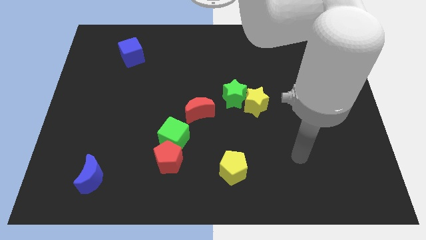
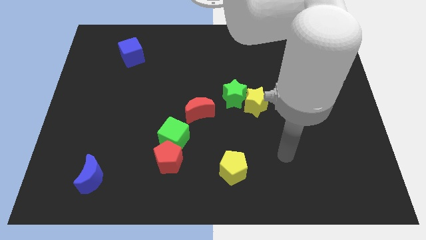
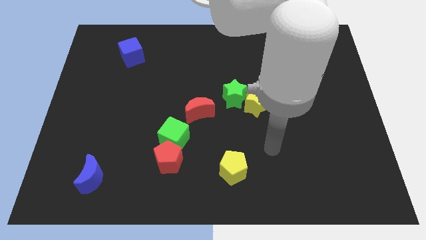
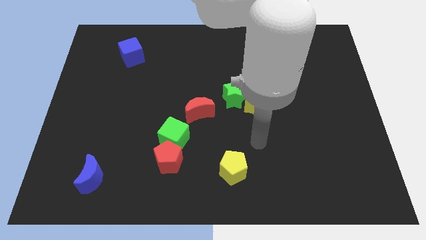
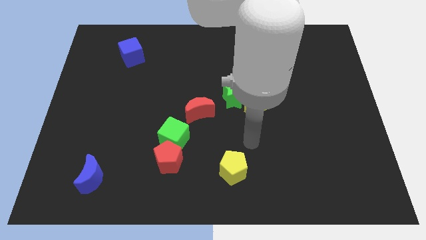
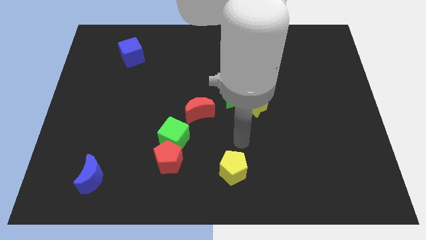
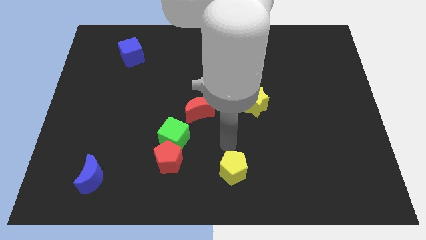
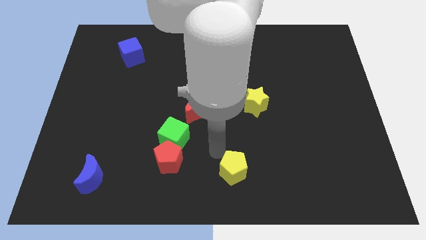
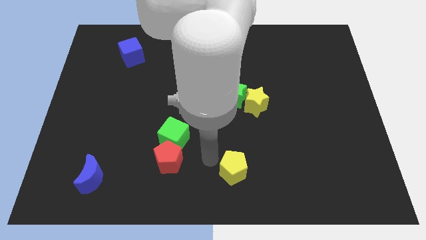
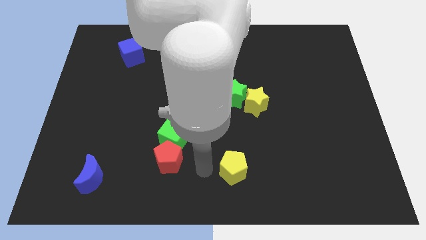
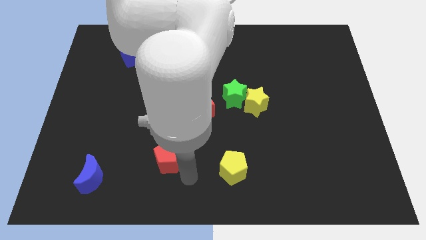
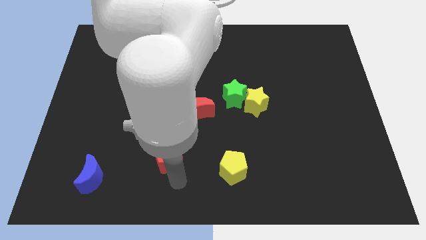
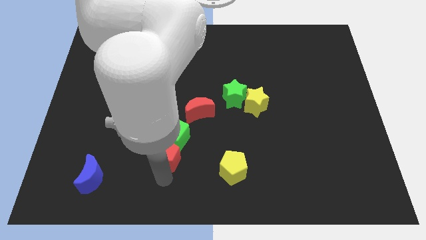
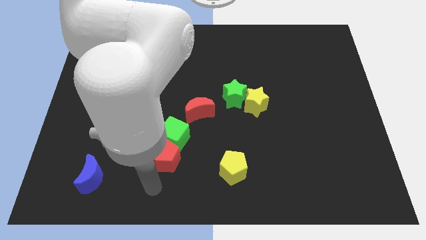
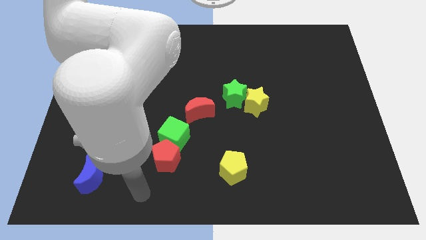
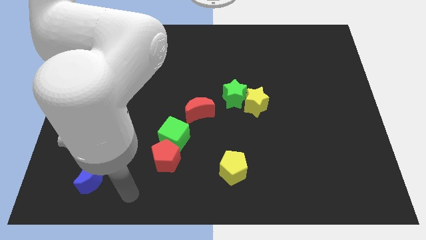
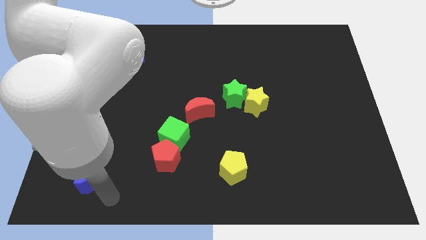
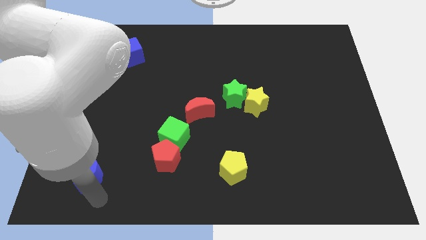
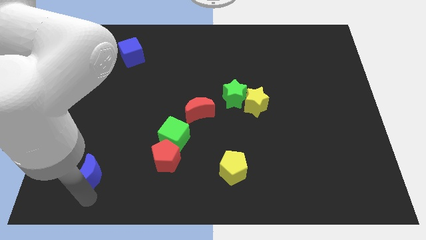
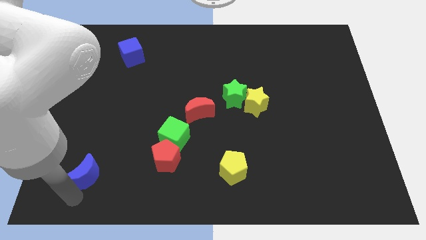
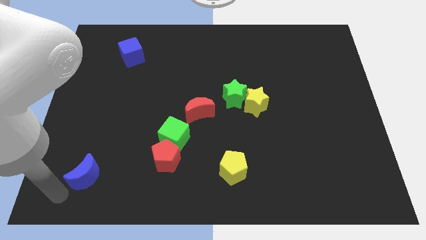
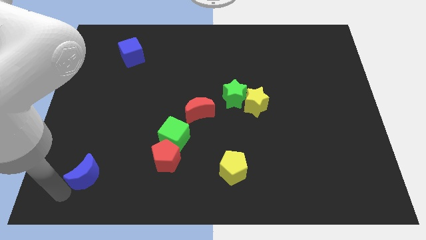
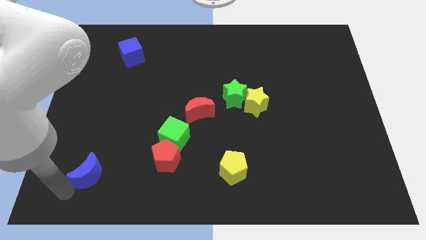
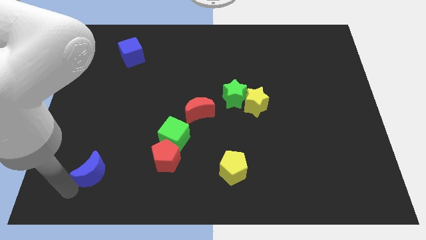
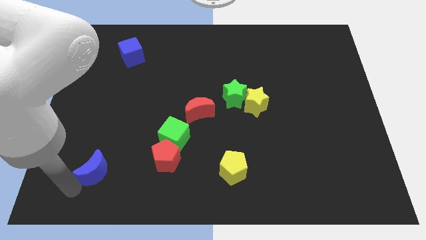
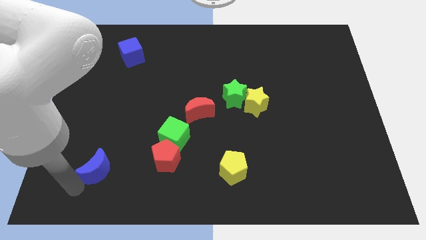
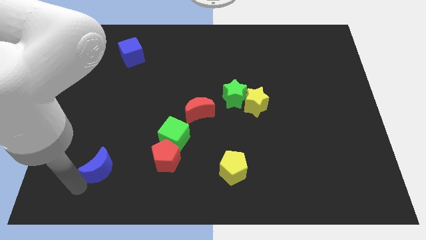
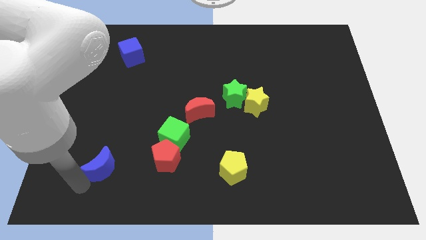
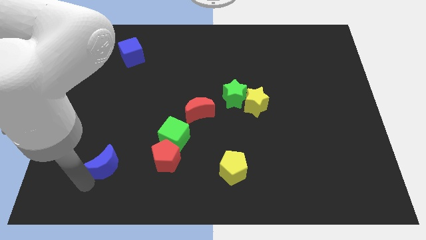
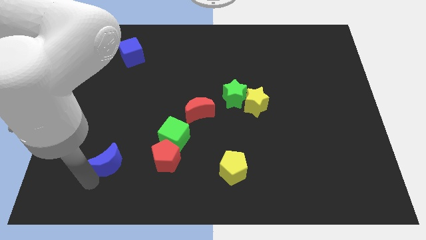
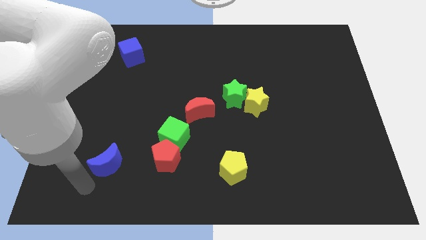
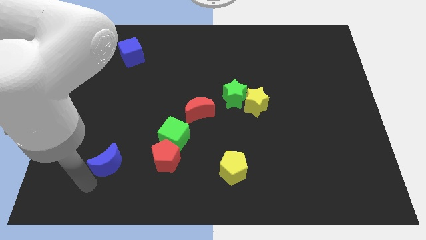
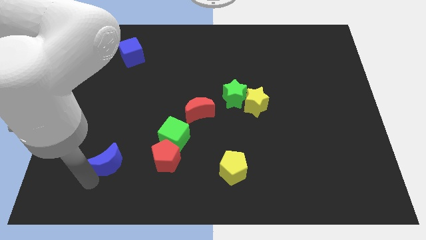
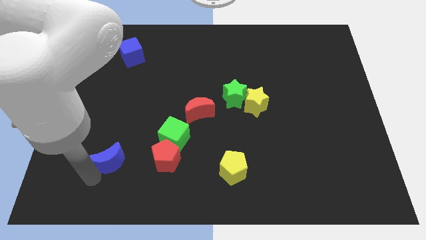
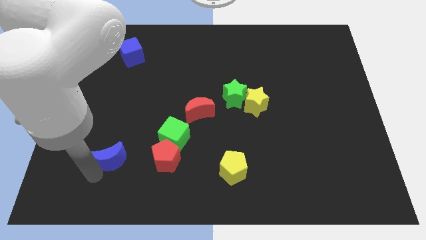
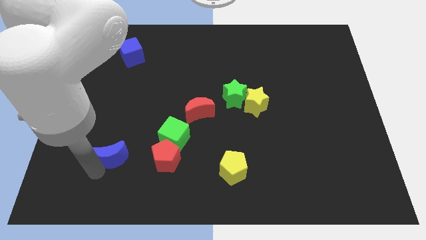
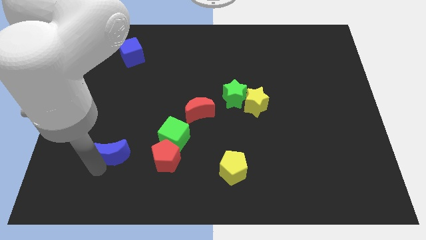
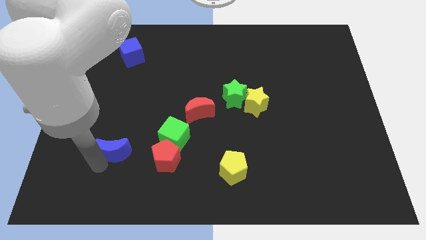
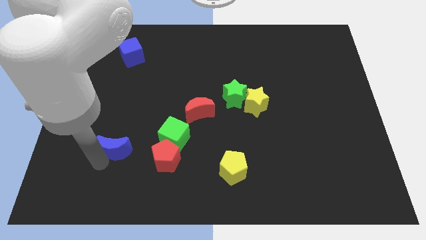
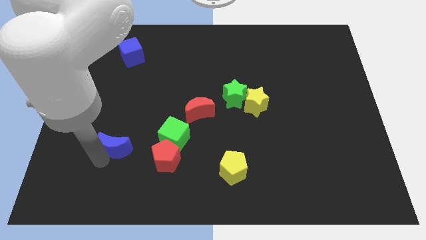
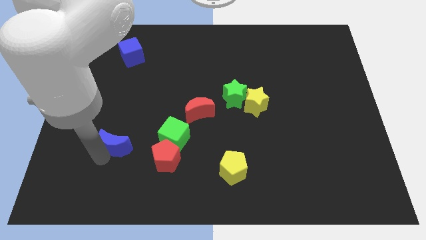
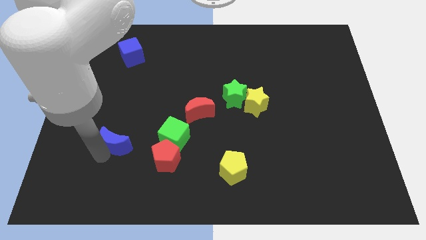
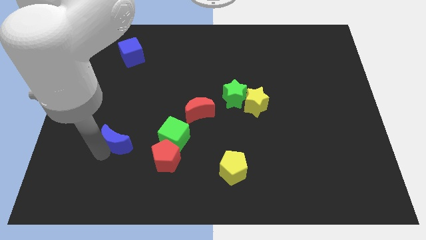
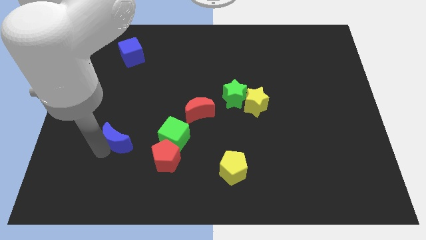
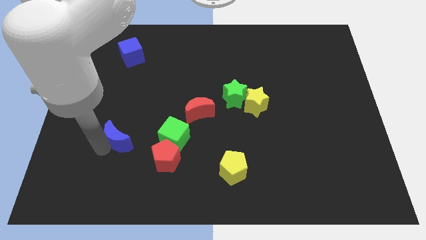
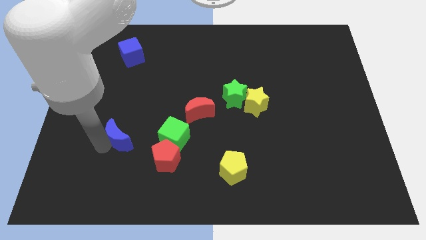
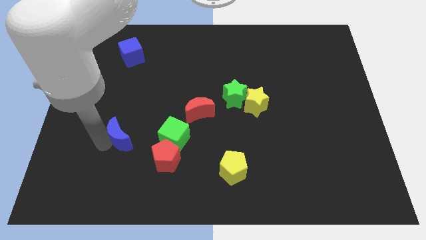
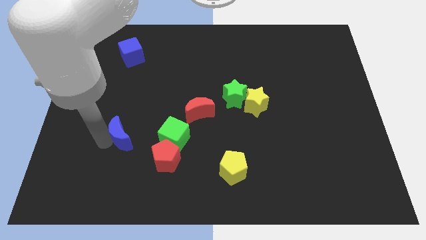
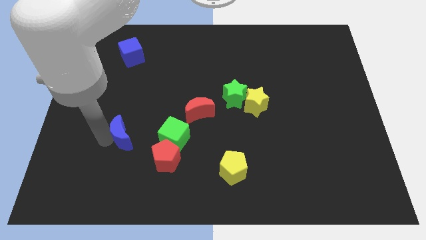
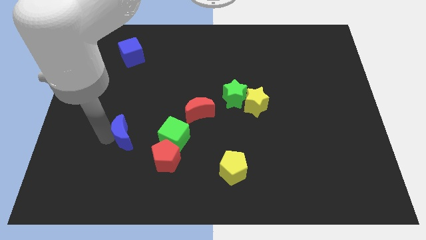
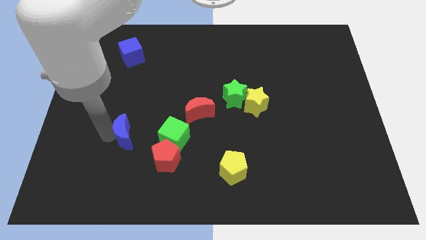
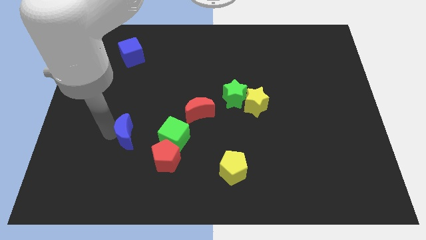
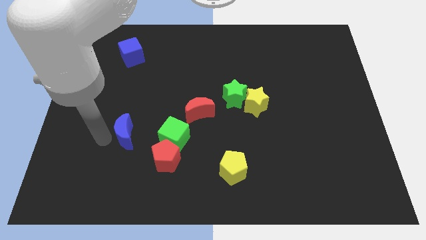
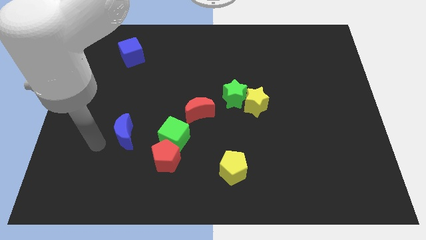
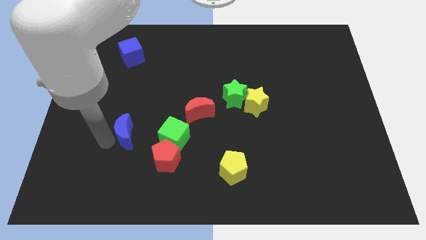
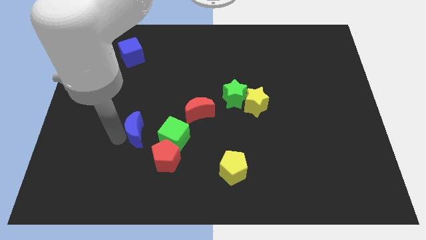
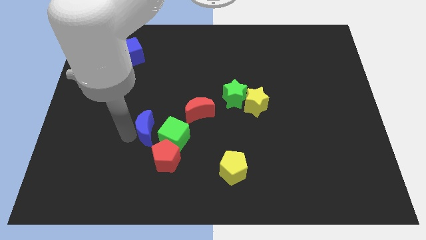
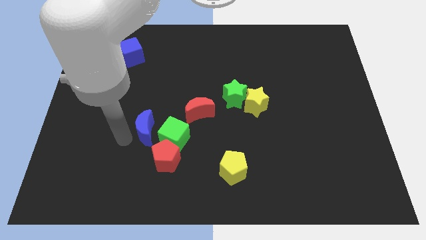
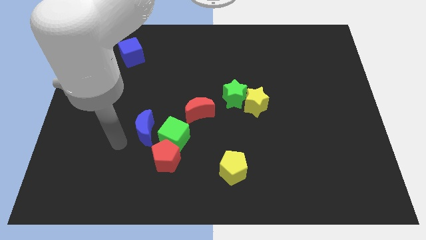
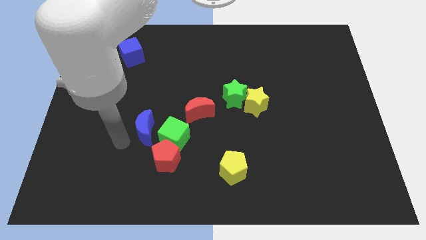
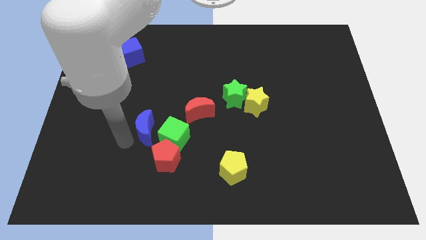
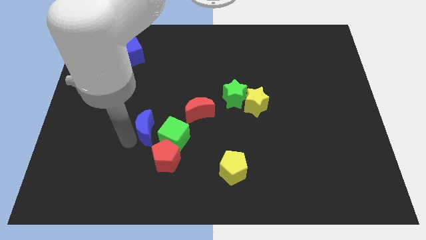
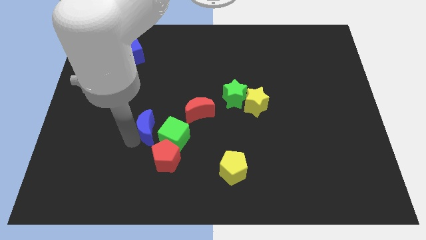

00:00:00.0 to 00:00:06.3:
push the blue moon to the top of the red pentagon

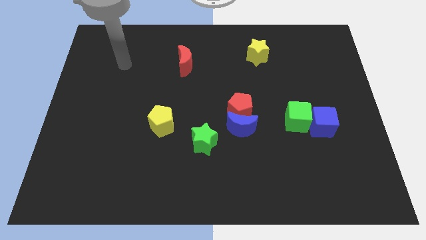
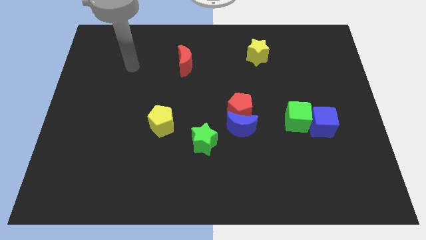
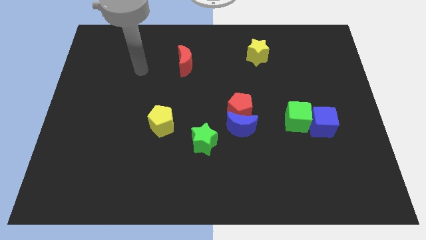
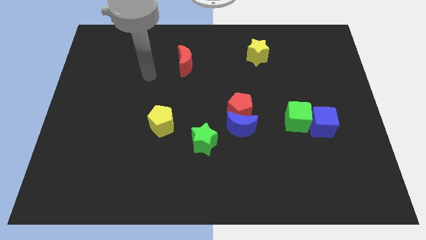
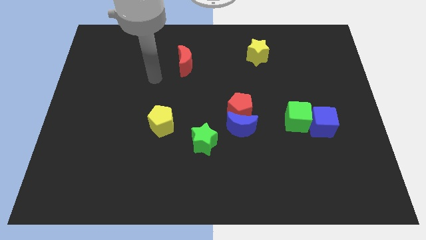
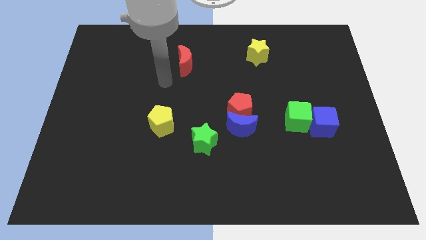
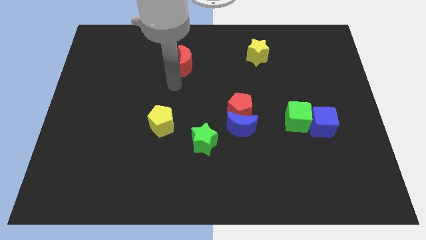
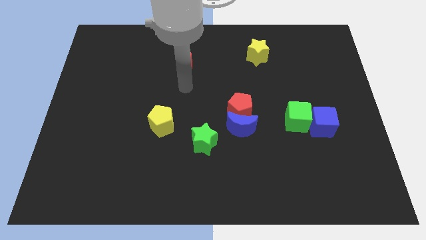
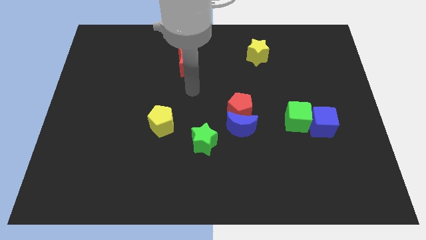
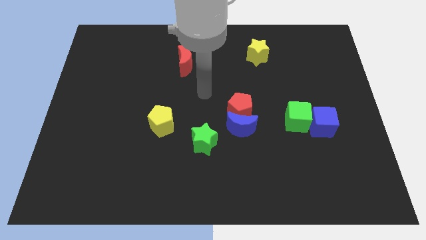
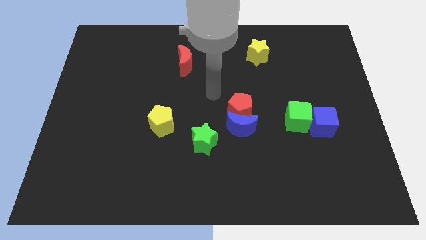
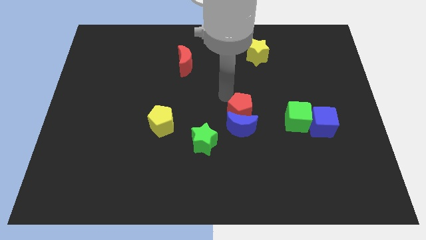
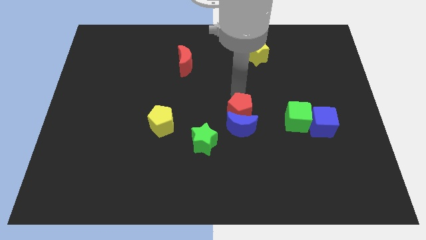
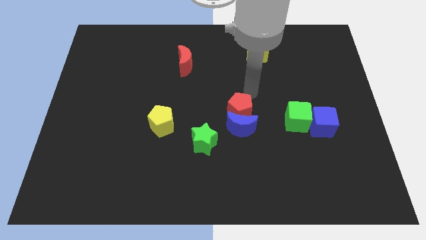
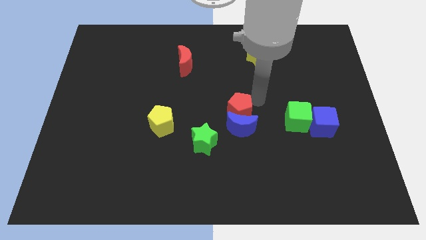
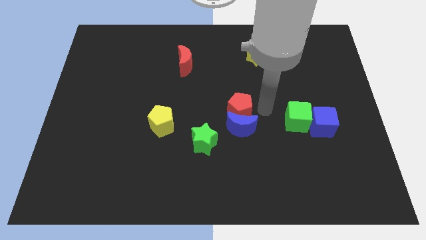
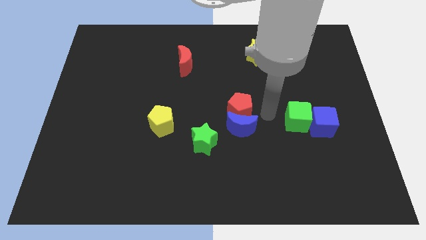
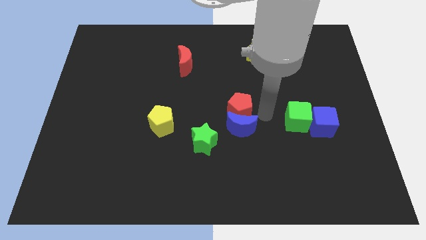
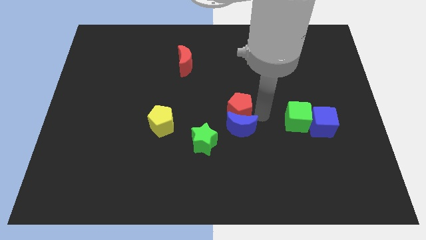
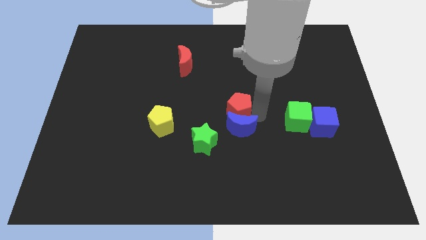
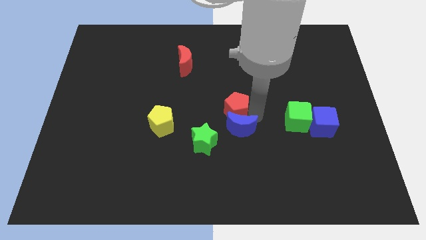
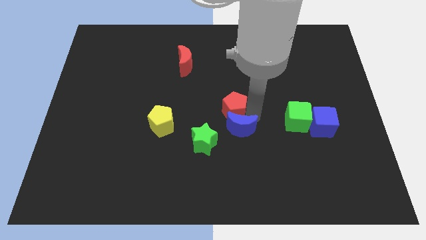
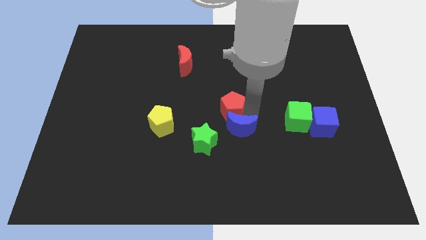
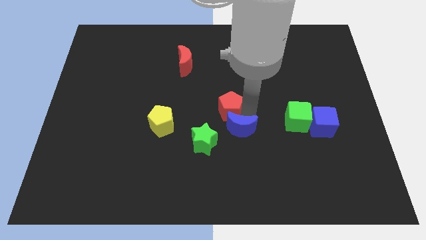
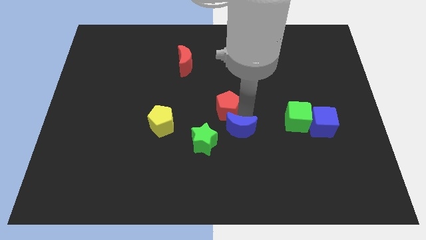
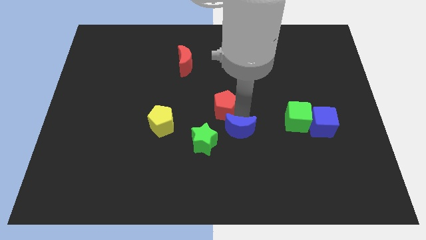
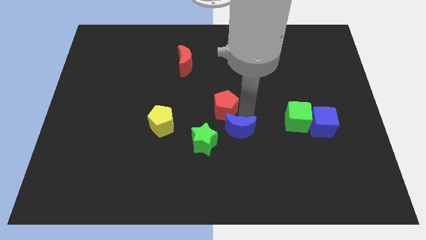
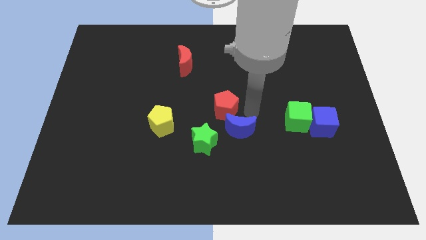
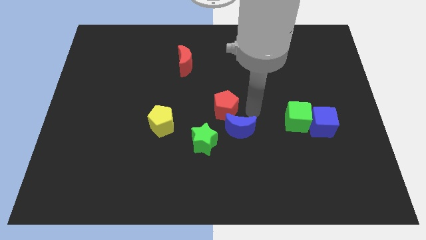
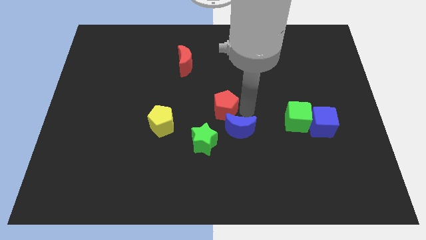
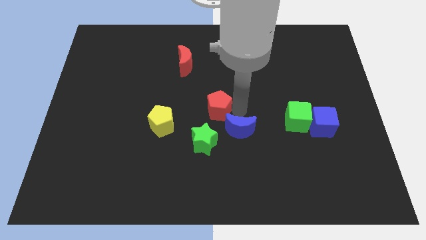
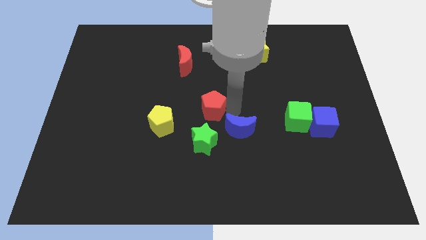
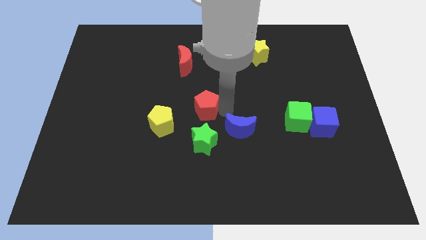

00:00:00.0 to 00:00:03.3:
move the red pentagon to the top right of the yellow pentagon
